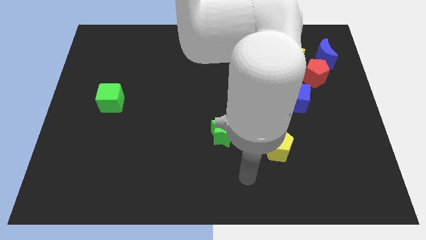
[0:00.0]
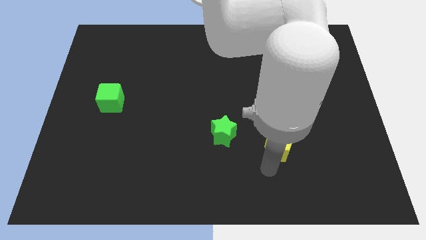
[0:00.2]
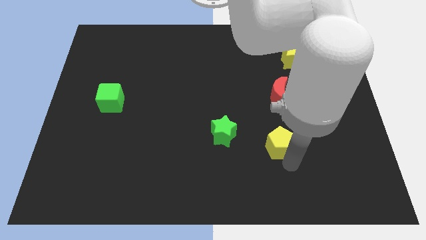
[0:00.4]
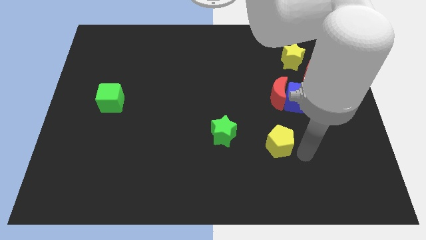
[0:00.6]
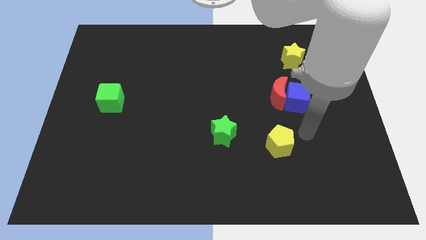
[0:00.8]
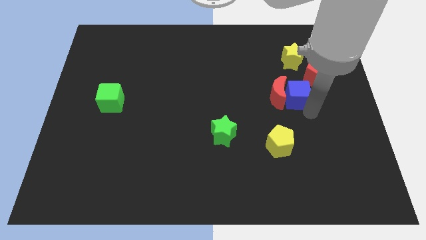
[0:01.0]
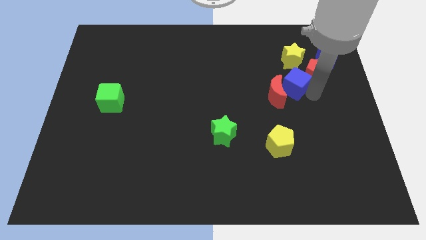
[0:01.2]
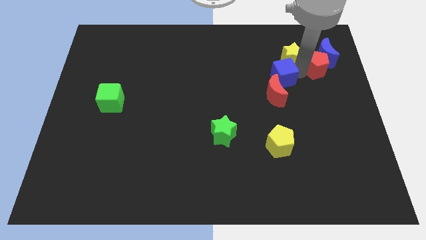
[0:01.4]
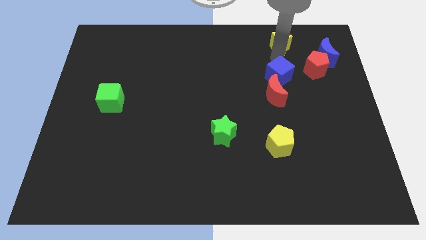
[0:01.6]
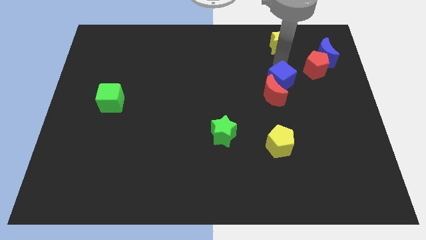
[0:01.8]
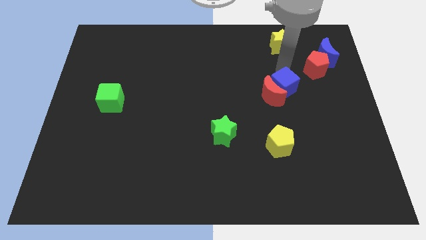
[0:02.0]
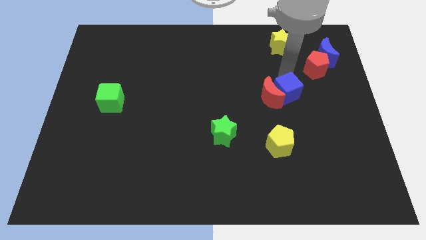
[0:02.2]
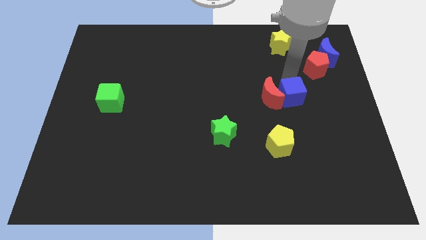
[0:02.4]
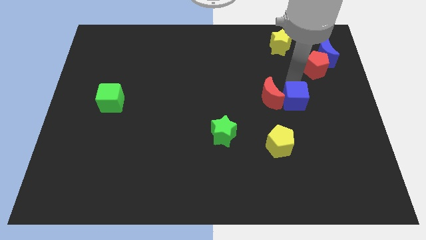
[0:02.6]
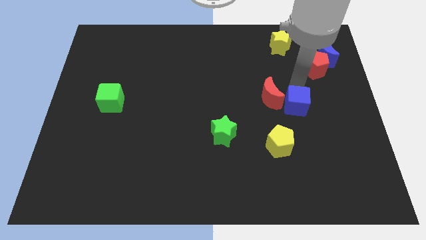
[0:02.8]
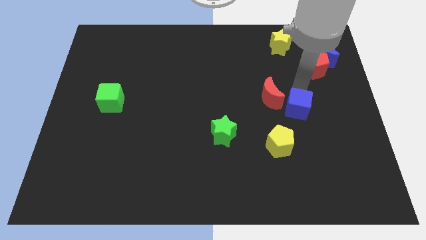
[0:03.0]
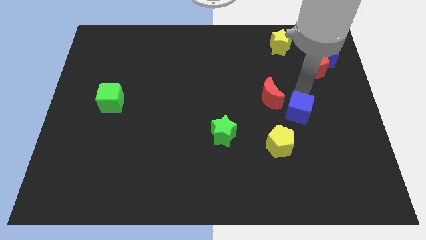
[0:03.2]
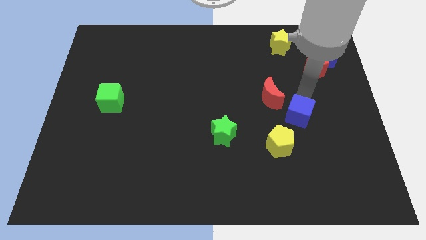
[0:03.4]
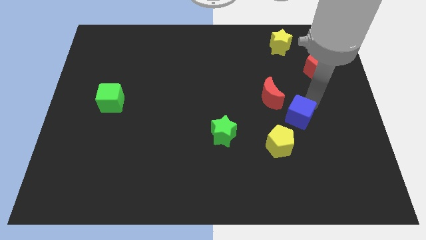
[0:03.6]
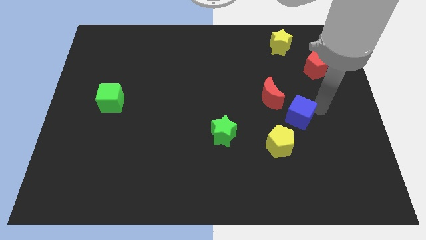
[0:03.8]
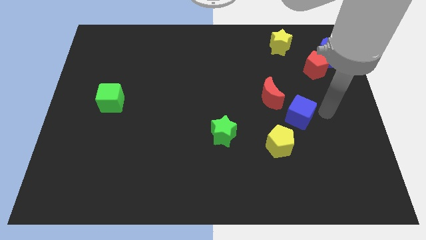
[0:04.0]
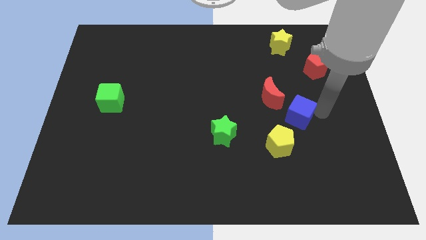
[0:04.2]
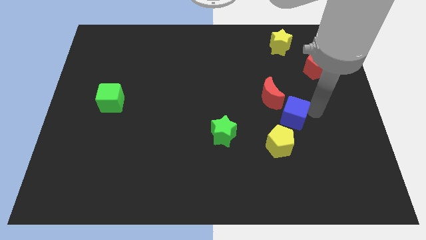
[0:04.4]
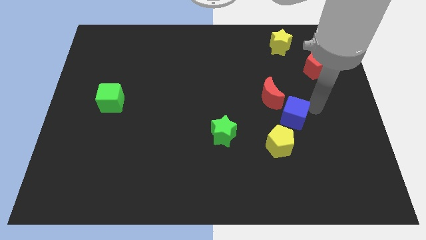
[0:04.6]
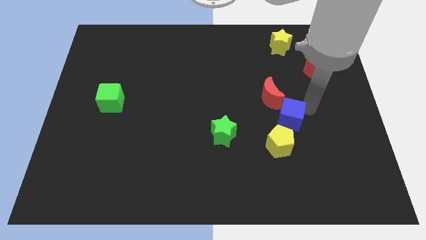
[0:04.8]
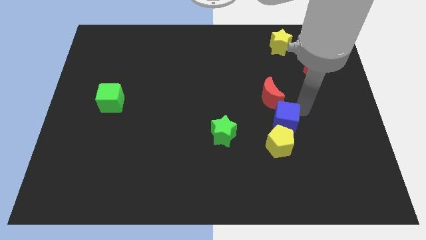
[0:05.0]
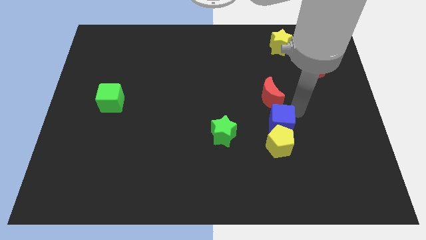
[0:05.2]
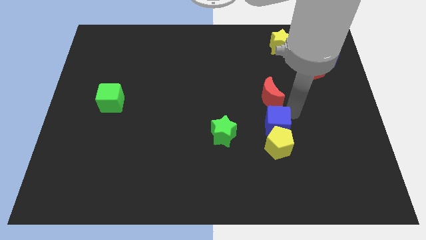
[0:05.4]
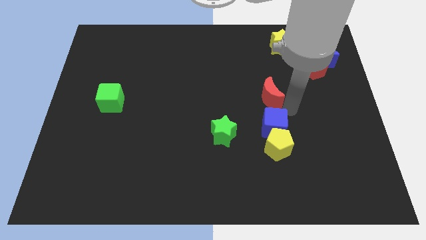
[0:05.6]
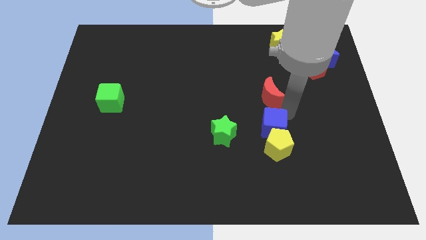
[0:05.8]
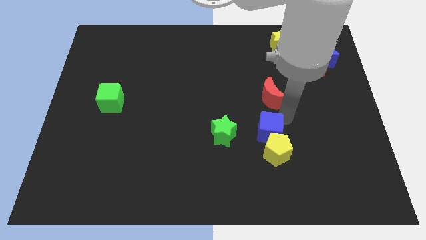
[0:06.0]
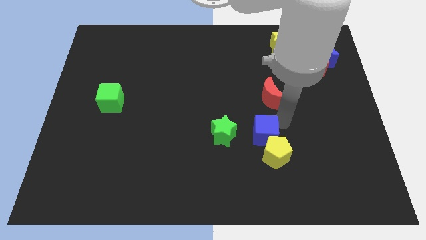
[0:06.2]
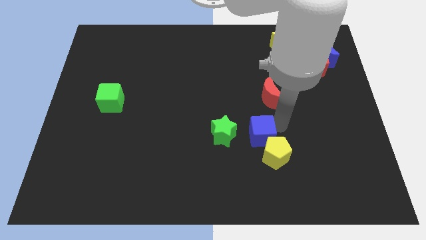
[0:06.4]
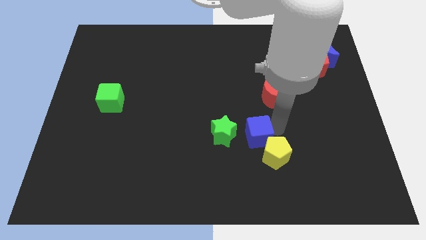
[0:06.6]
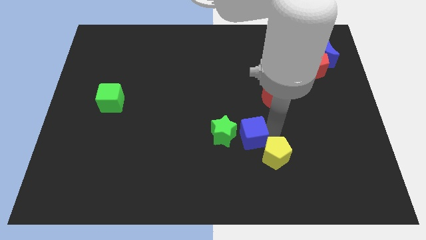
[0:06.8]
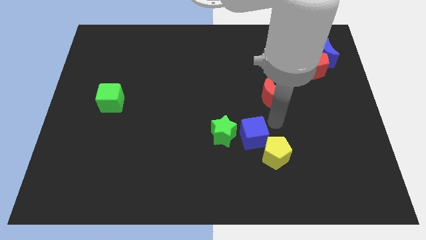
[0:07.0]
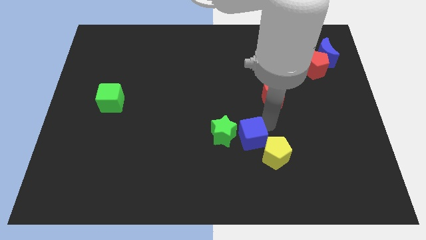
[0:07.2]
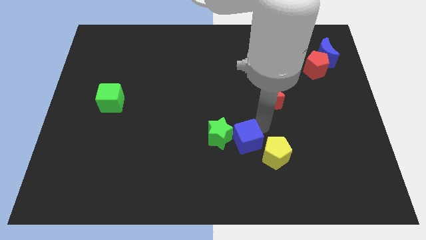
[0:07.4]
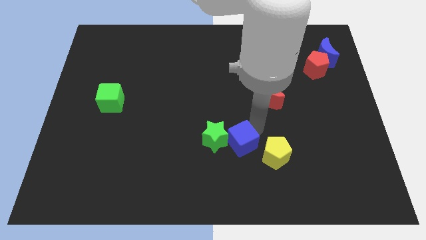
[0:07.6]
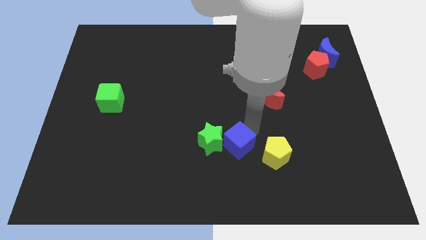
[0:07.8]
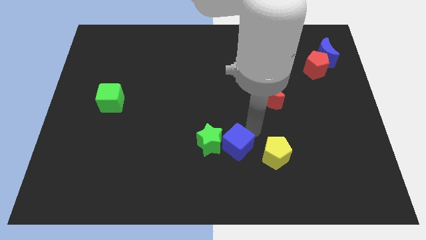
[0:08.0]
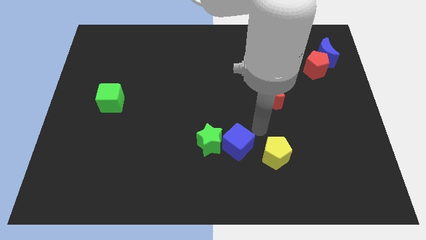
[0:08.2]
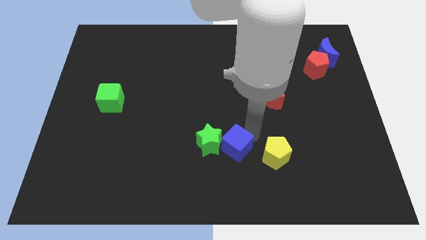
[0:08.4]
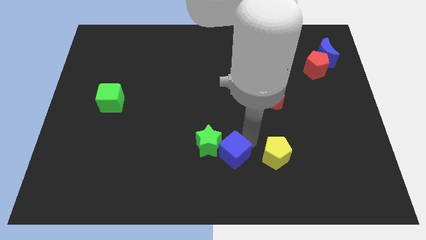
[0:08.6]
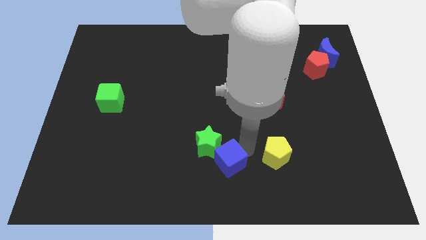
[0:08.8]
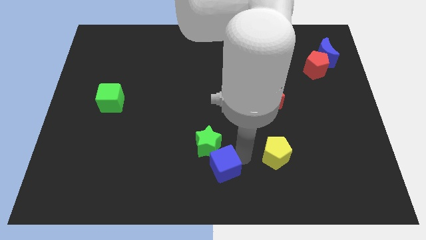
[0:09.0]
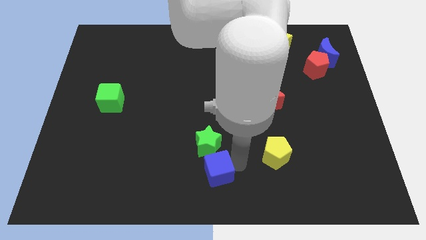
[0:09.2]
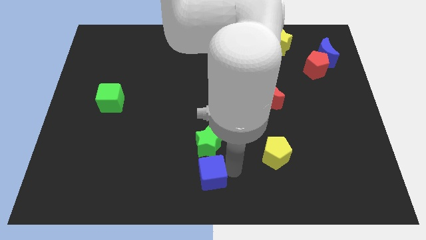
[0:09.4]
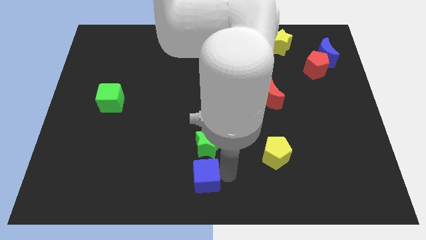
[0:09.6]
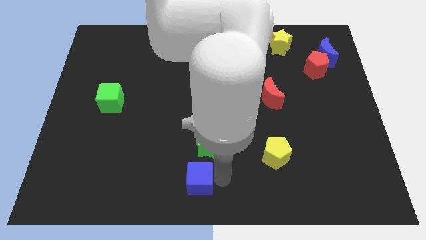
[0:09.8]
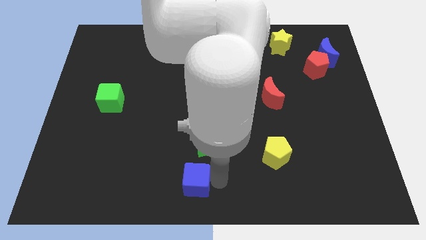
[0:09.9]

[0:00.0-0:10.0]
push the blue cube diagonally down and to the left of the green star

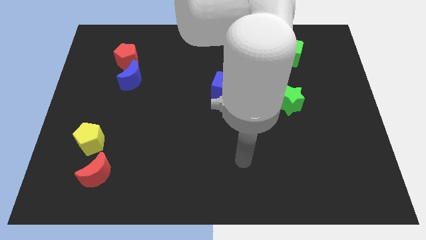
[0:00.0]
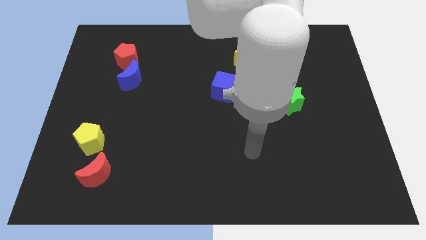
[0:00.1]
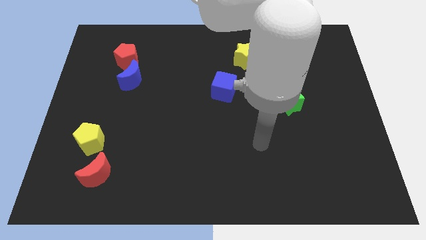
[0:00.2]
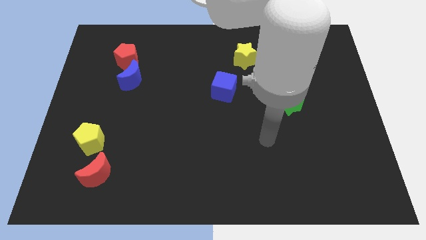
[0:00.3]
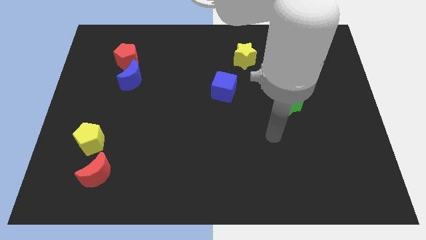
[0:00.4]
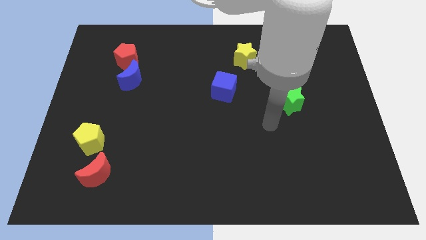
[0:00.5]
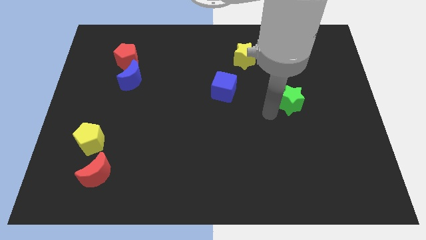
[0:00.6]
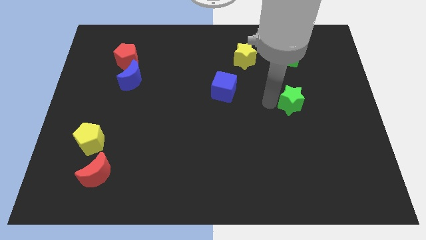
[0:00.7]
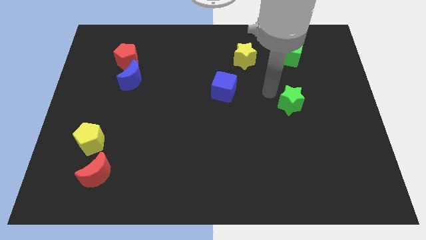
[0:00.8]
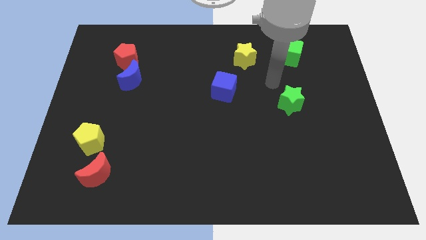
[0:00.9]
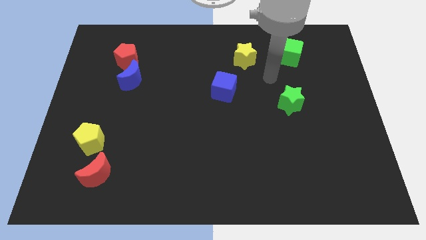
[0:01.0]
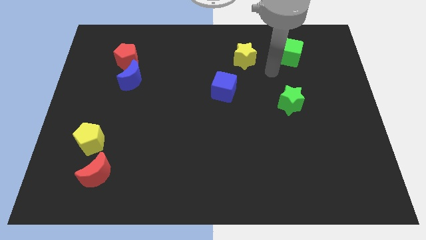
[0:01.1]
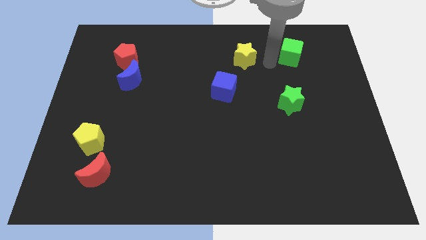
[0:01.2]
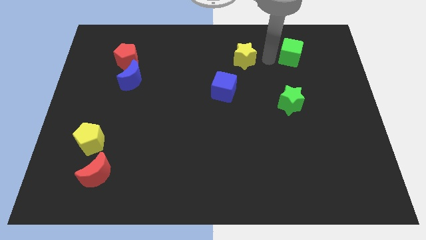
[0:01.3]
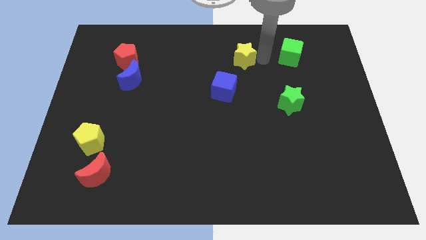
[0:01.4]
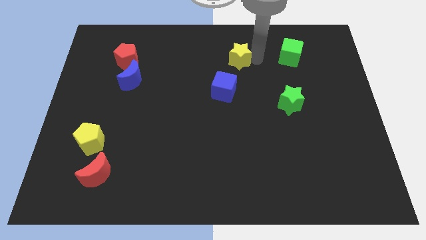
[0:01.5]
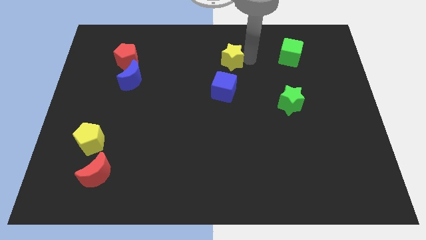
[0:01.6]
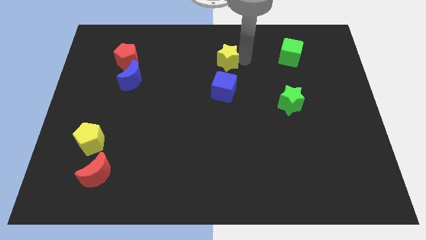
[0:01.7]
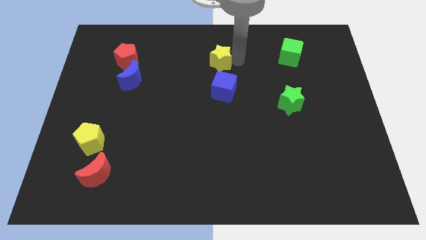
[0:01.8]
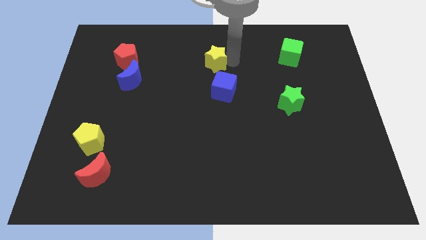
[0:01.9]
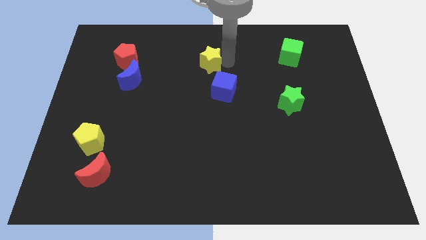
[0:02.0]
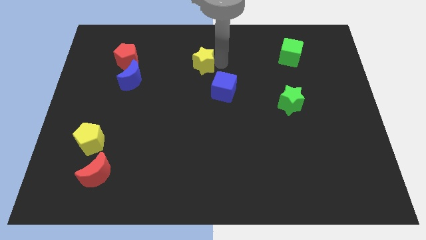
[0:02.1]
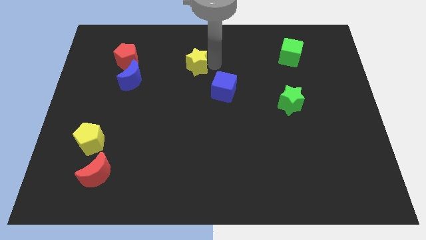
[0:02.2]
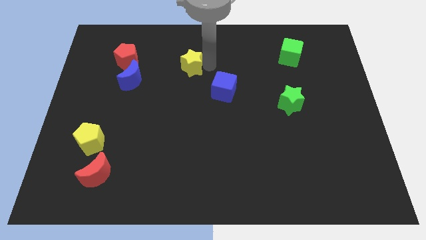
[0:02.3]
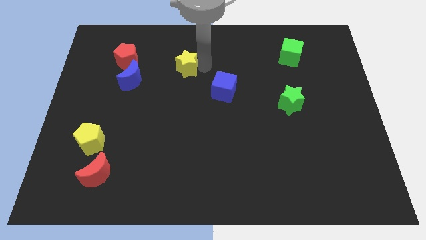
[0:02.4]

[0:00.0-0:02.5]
put the yellow star just right of the red pentagon
